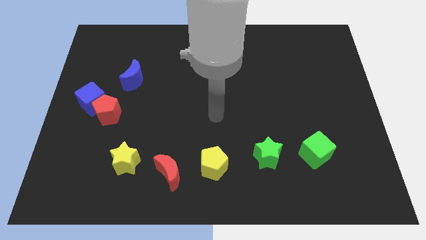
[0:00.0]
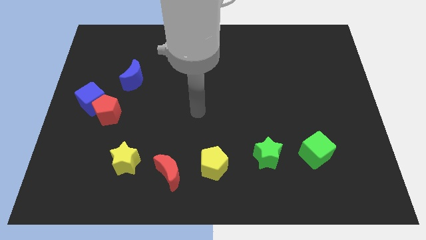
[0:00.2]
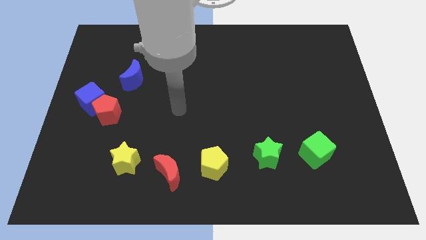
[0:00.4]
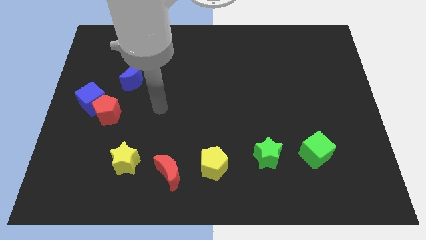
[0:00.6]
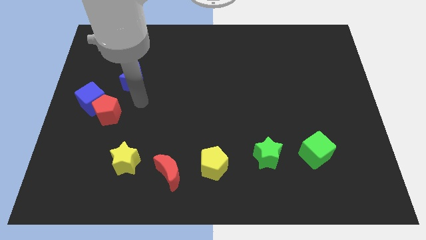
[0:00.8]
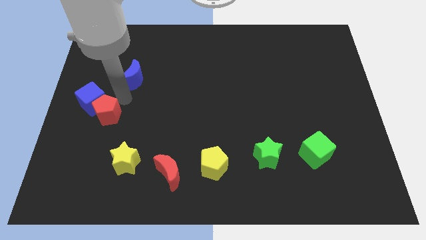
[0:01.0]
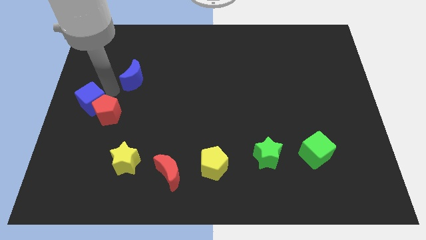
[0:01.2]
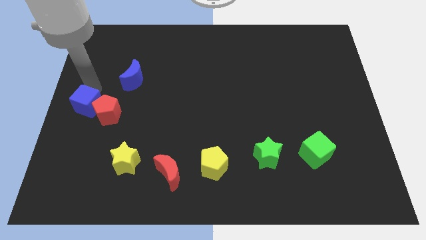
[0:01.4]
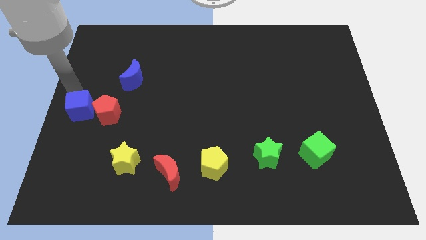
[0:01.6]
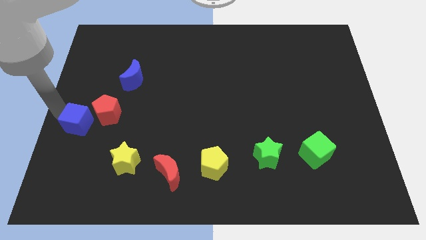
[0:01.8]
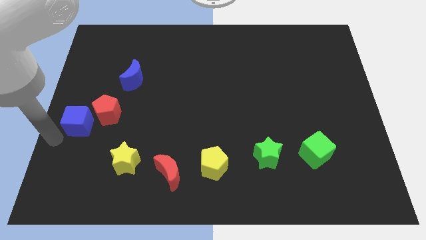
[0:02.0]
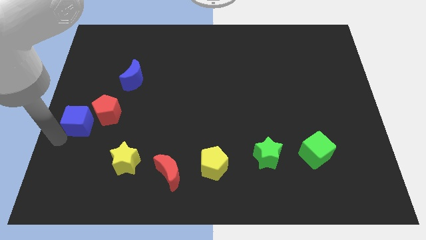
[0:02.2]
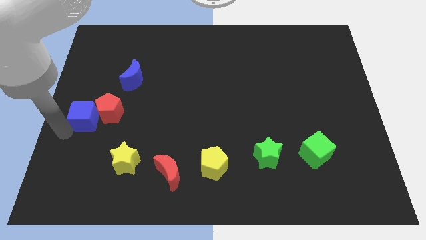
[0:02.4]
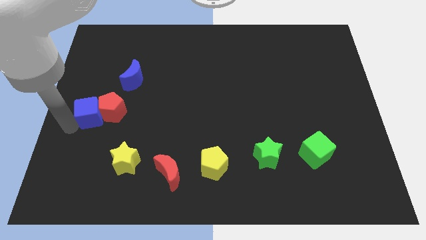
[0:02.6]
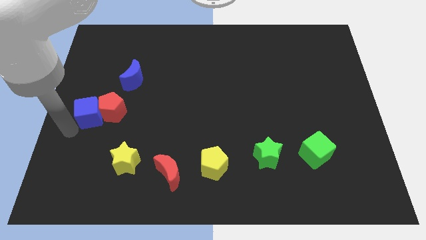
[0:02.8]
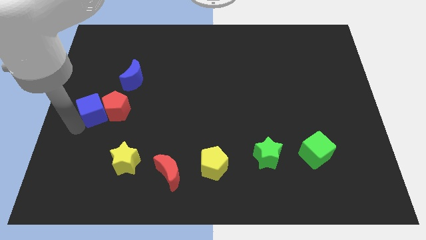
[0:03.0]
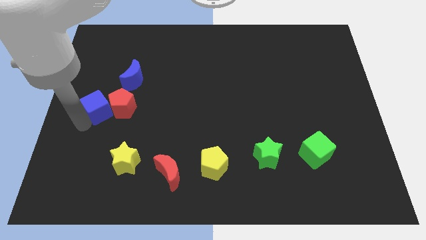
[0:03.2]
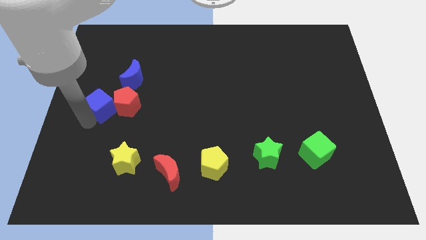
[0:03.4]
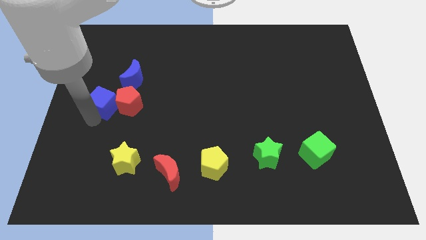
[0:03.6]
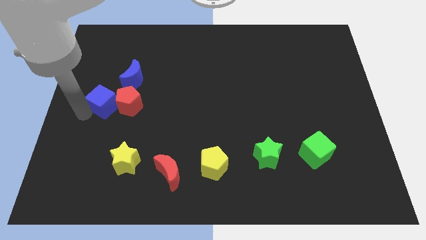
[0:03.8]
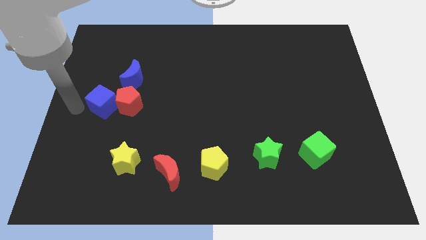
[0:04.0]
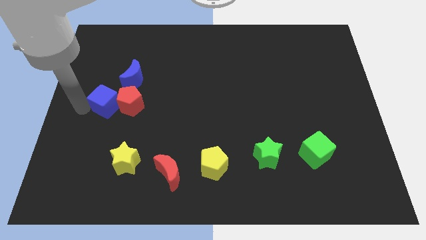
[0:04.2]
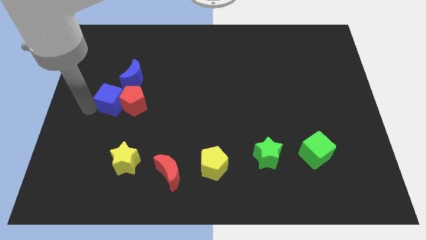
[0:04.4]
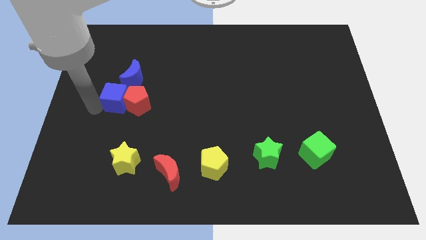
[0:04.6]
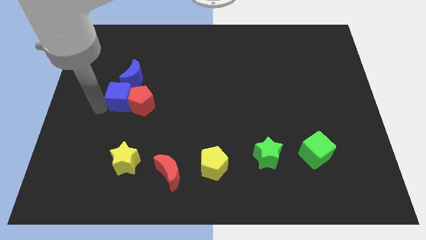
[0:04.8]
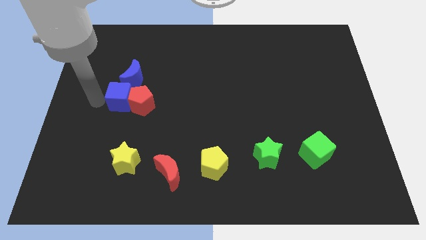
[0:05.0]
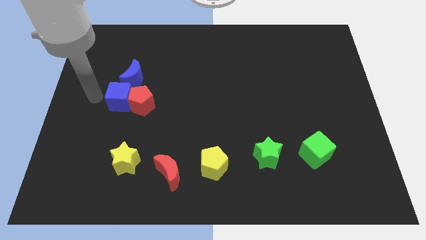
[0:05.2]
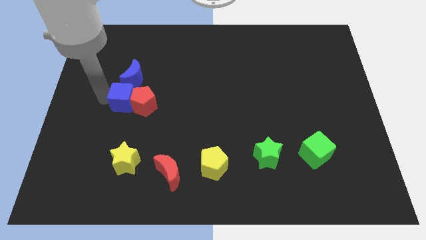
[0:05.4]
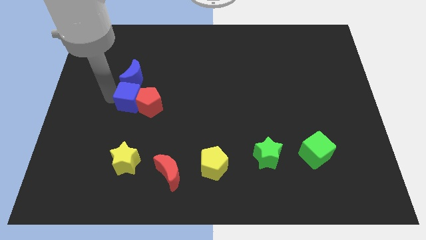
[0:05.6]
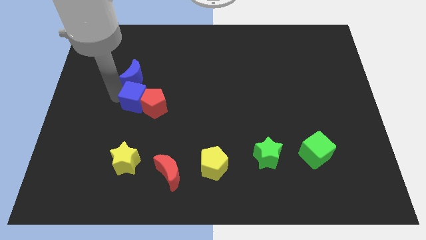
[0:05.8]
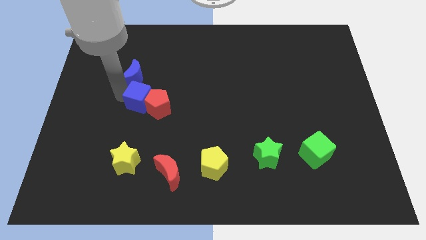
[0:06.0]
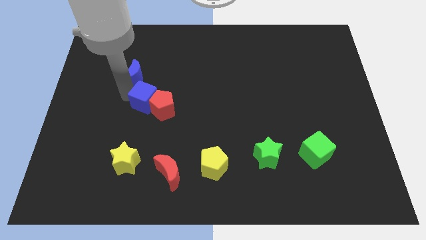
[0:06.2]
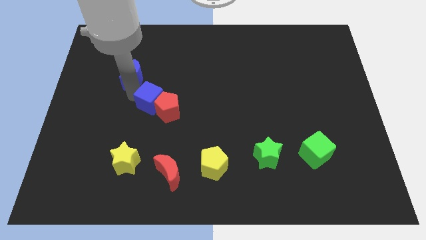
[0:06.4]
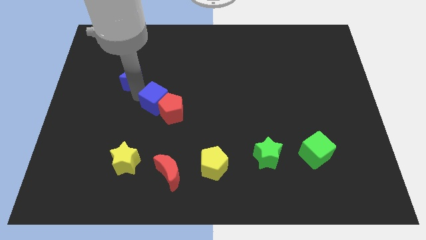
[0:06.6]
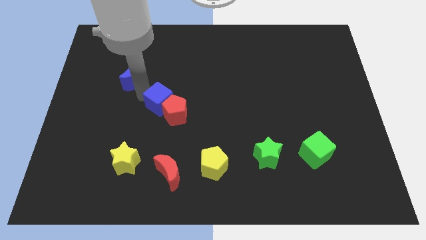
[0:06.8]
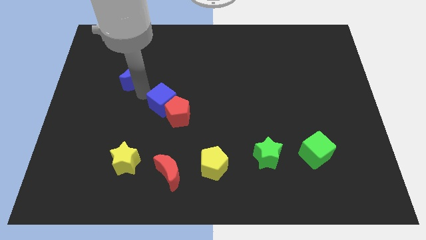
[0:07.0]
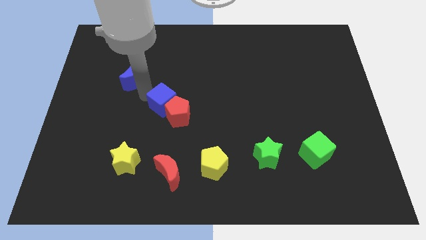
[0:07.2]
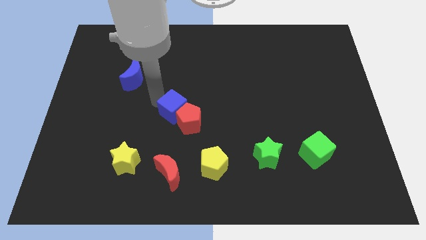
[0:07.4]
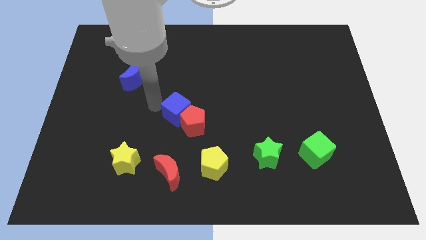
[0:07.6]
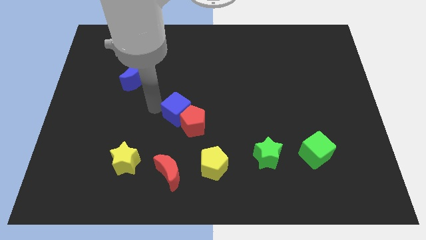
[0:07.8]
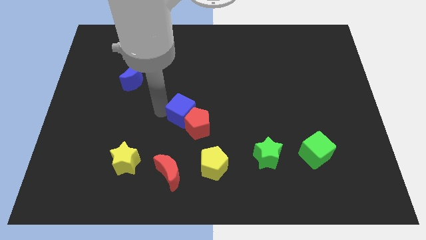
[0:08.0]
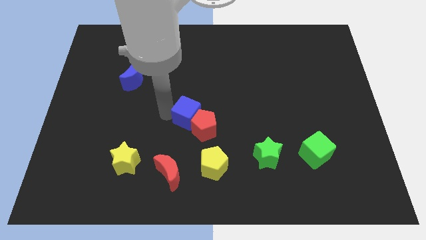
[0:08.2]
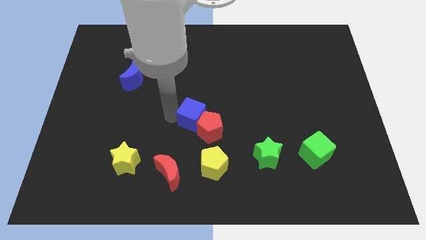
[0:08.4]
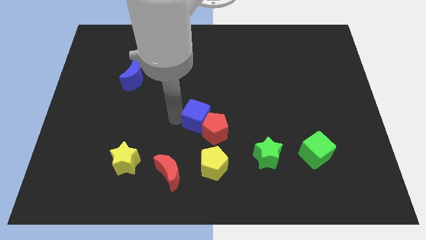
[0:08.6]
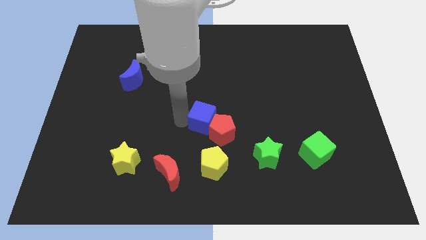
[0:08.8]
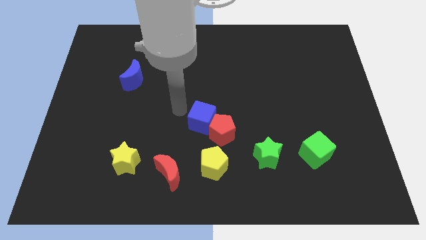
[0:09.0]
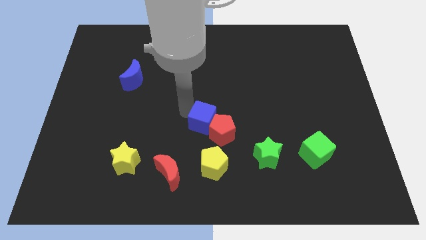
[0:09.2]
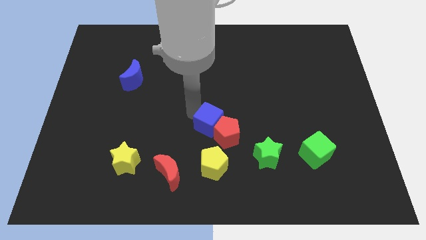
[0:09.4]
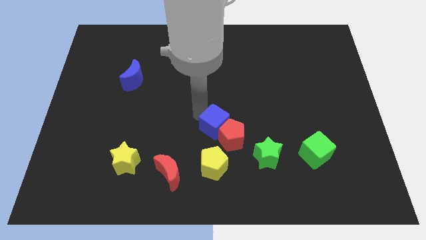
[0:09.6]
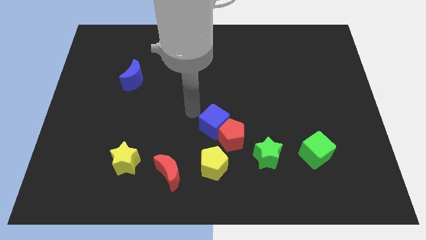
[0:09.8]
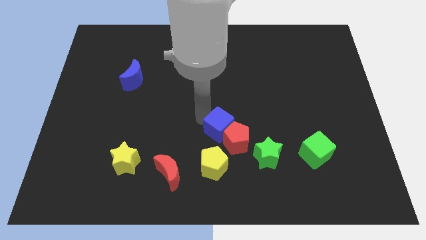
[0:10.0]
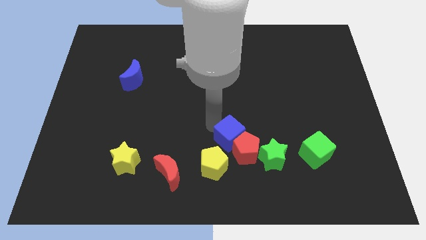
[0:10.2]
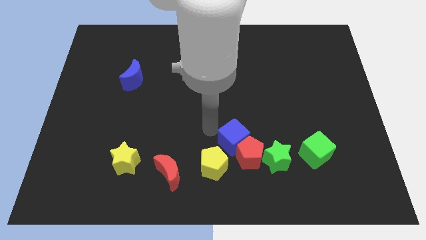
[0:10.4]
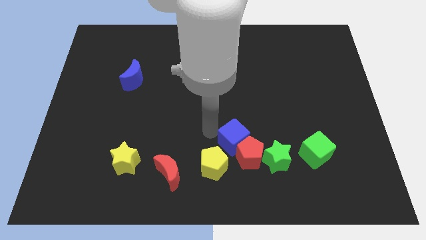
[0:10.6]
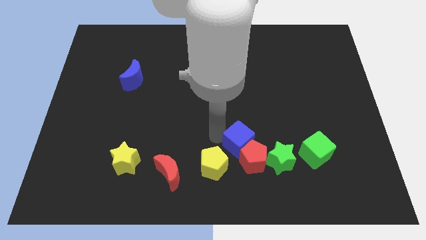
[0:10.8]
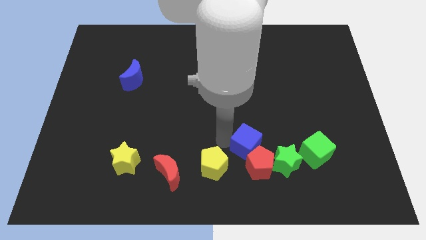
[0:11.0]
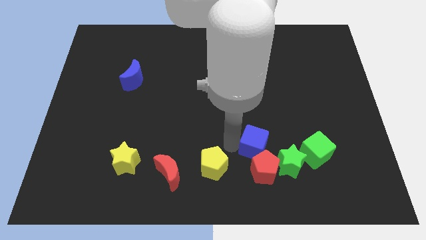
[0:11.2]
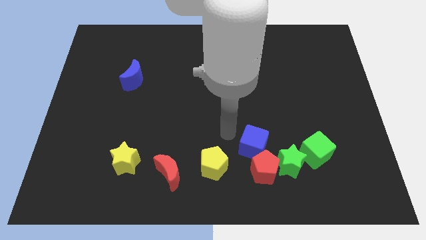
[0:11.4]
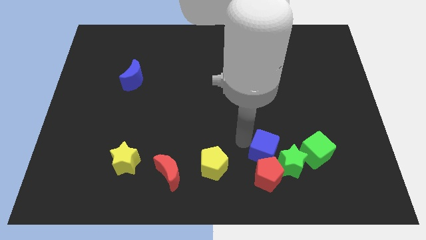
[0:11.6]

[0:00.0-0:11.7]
move the blue cube close to the green star
